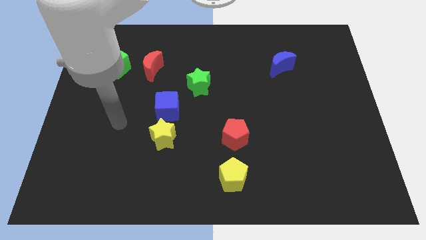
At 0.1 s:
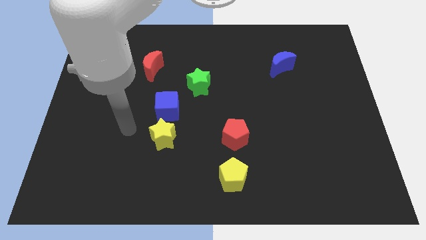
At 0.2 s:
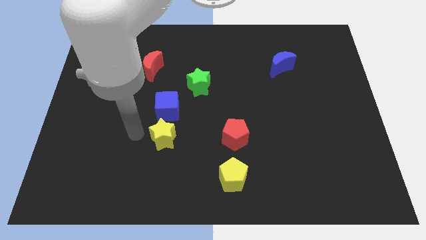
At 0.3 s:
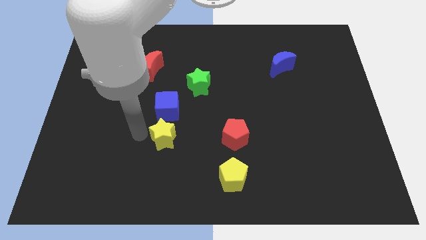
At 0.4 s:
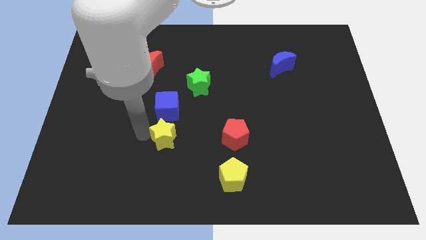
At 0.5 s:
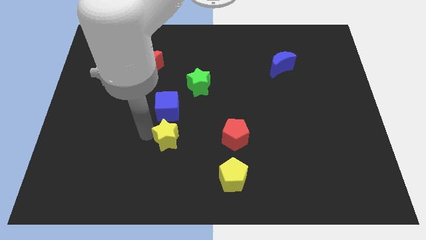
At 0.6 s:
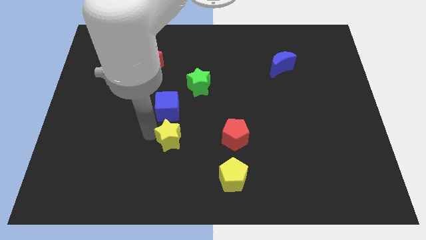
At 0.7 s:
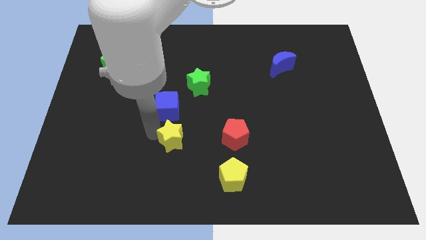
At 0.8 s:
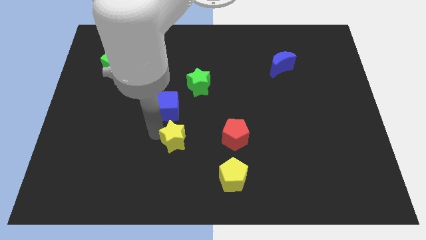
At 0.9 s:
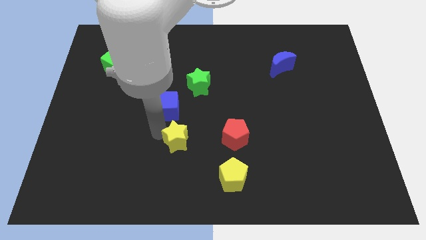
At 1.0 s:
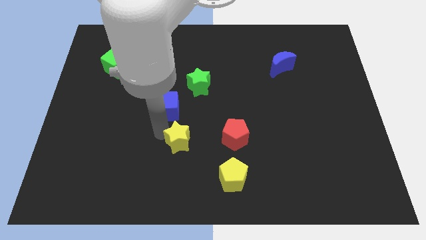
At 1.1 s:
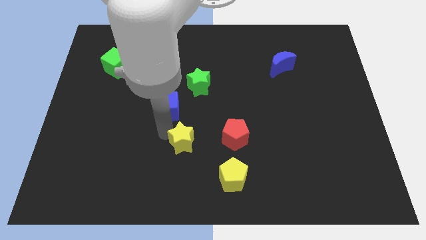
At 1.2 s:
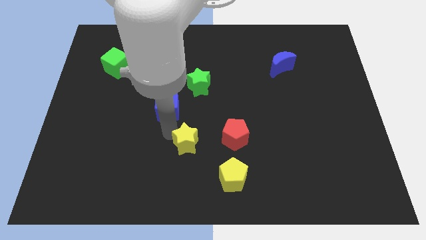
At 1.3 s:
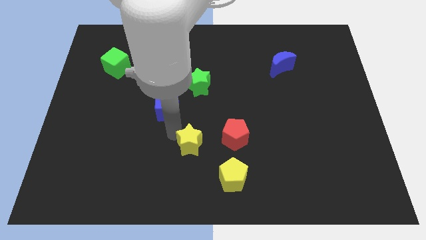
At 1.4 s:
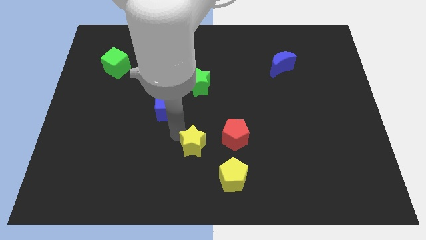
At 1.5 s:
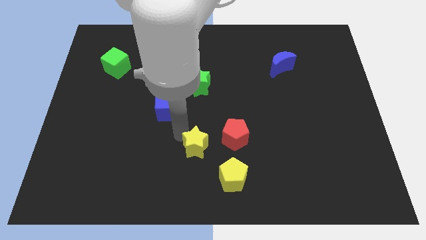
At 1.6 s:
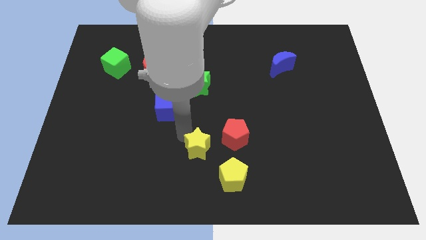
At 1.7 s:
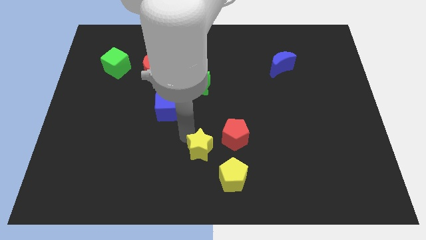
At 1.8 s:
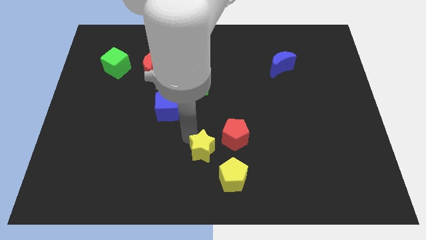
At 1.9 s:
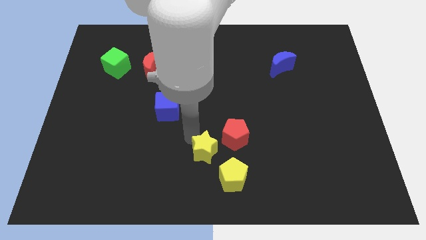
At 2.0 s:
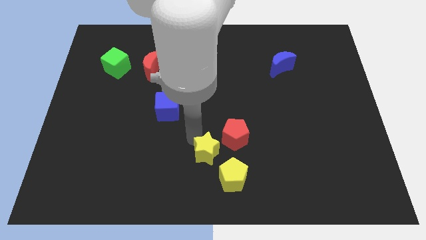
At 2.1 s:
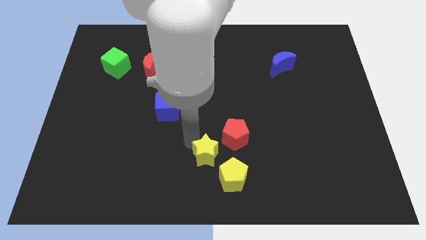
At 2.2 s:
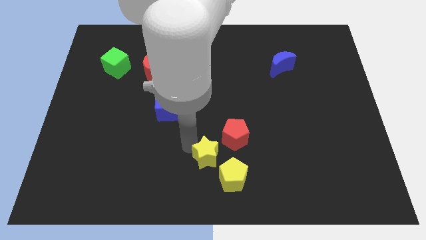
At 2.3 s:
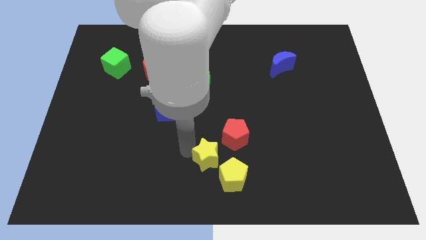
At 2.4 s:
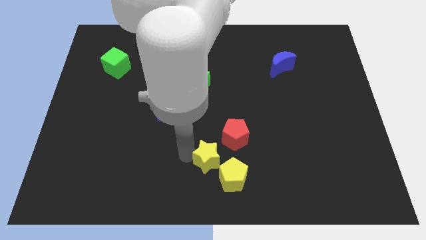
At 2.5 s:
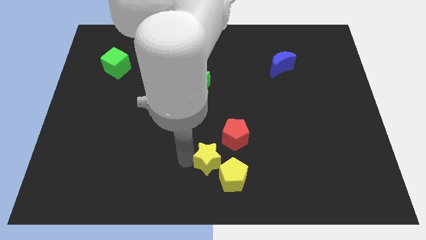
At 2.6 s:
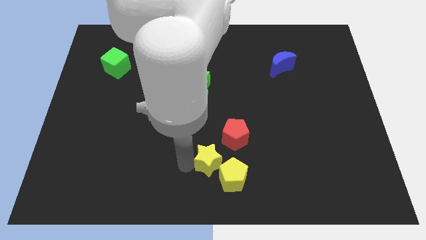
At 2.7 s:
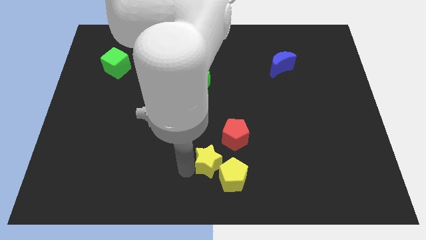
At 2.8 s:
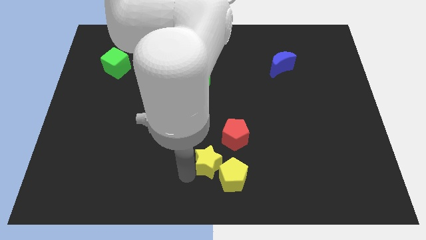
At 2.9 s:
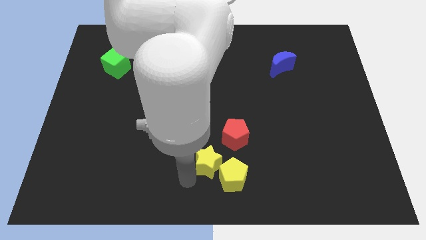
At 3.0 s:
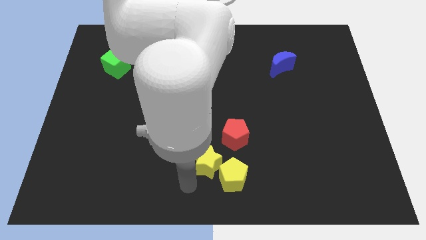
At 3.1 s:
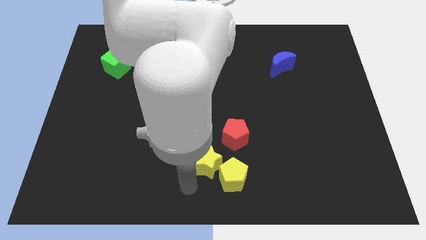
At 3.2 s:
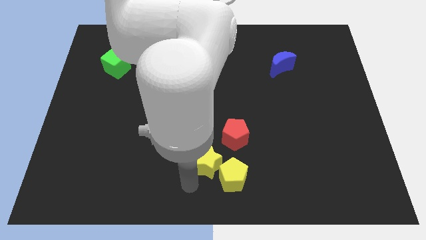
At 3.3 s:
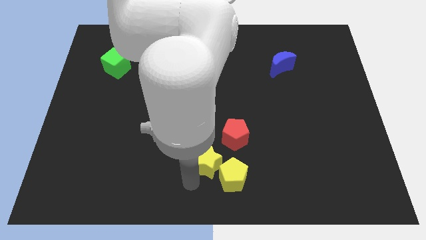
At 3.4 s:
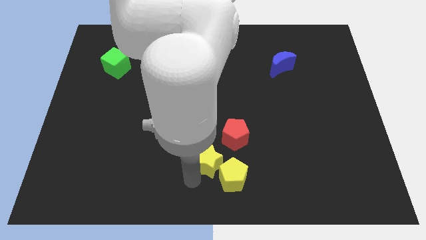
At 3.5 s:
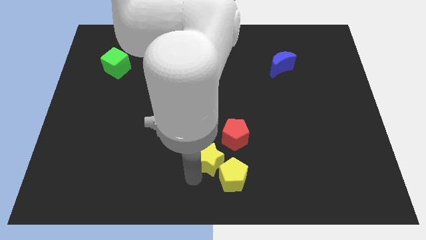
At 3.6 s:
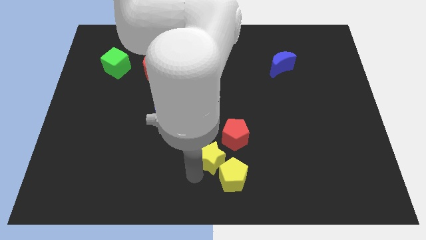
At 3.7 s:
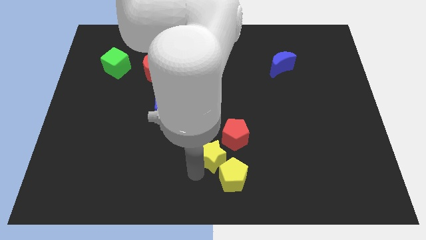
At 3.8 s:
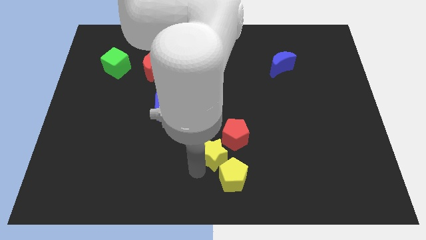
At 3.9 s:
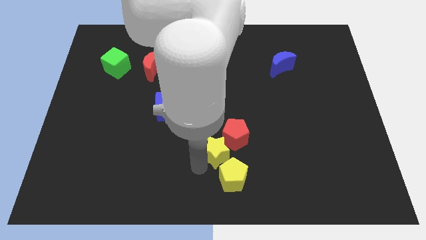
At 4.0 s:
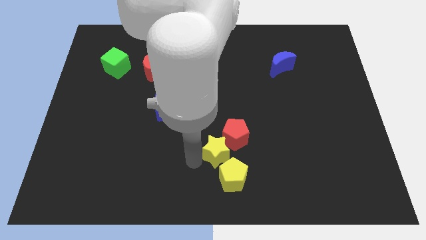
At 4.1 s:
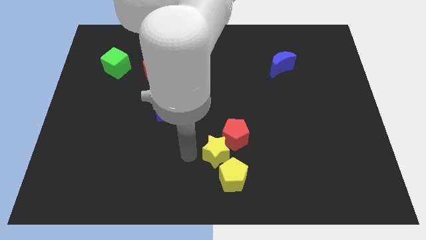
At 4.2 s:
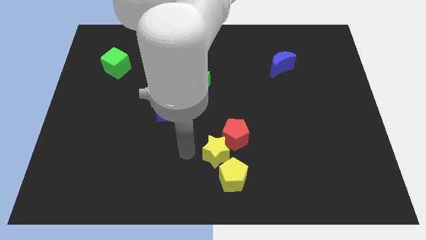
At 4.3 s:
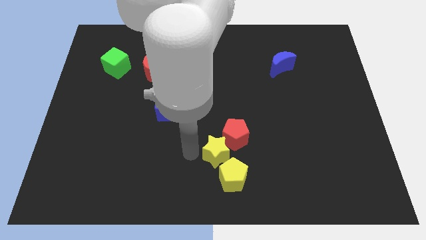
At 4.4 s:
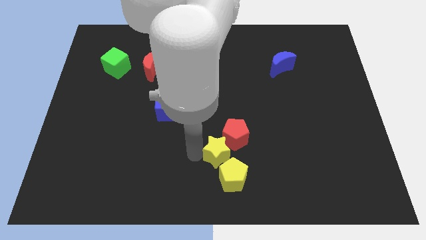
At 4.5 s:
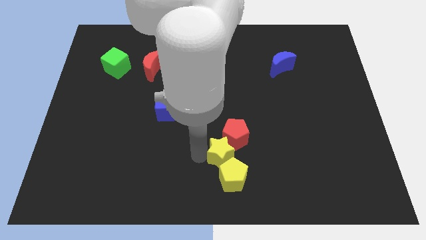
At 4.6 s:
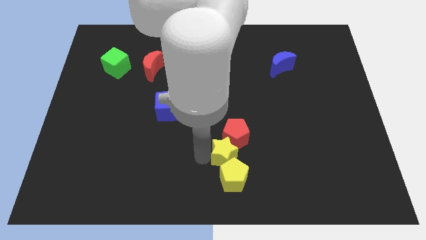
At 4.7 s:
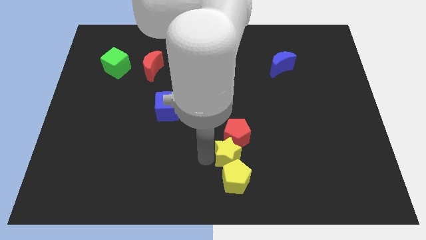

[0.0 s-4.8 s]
push the yellow star to the top right side of the yellow pentagon

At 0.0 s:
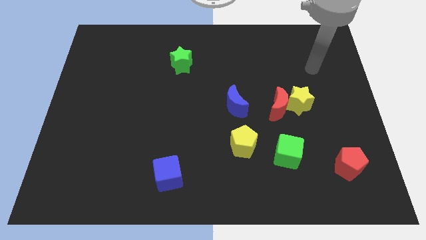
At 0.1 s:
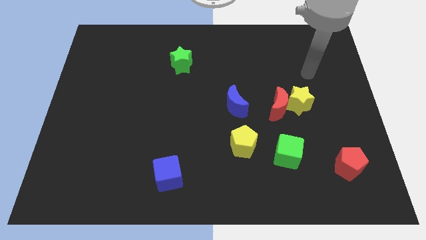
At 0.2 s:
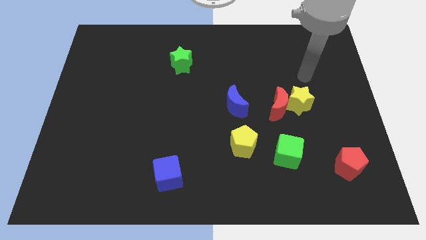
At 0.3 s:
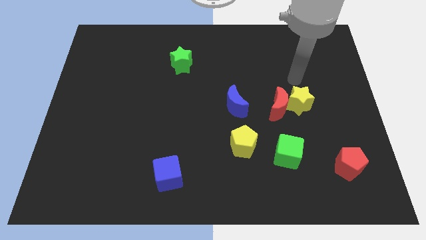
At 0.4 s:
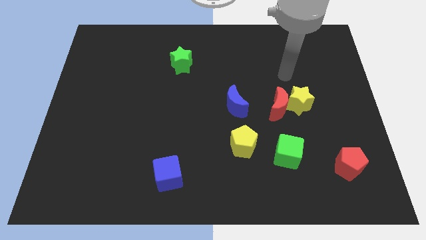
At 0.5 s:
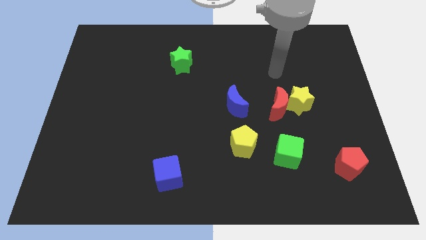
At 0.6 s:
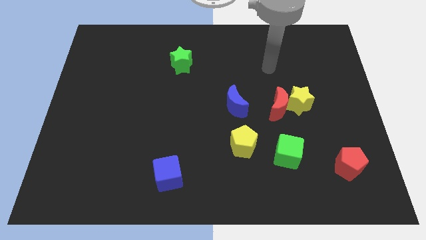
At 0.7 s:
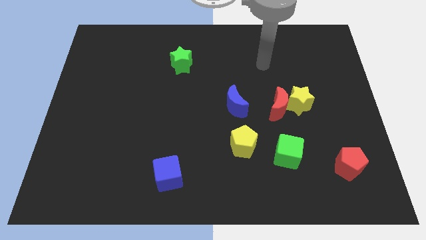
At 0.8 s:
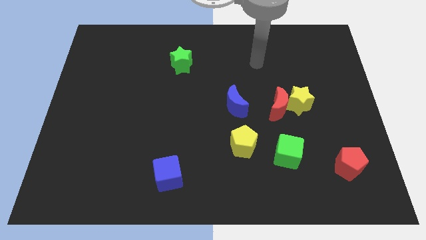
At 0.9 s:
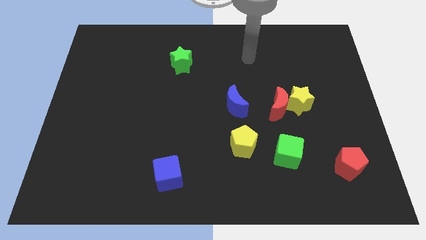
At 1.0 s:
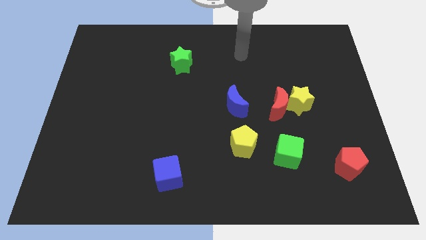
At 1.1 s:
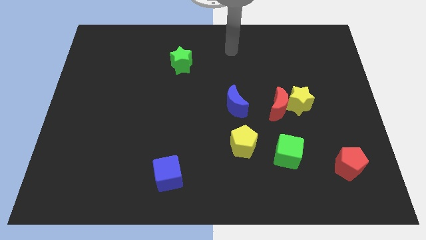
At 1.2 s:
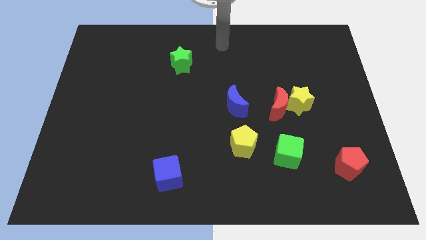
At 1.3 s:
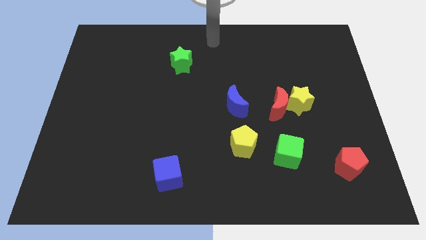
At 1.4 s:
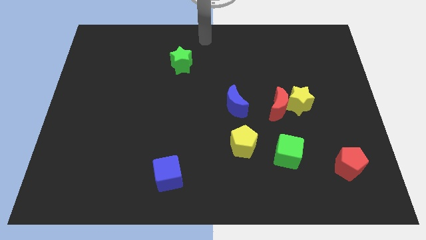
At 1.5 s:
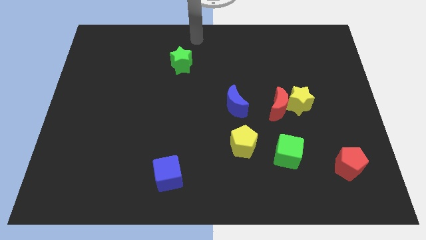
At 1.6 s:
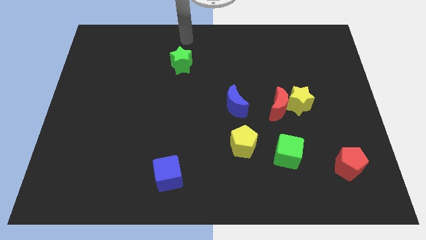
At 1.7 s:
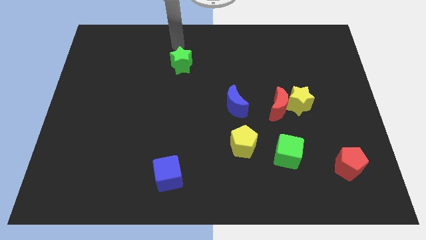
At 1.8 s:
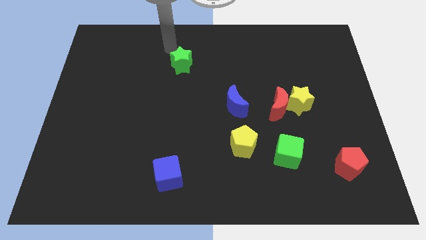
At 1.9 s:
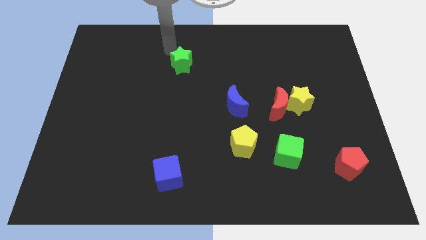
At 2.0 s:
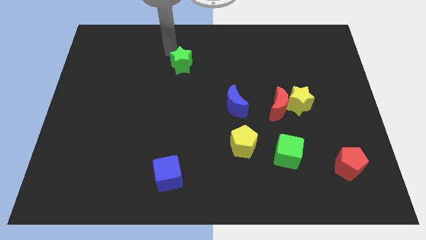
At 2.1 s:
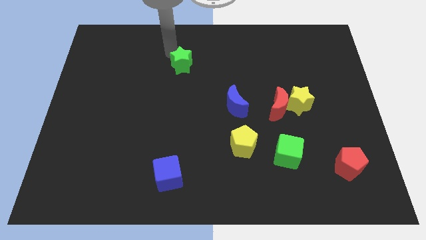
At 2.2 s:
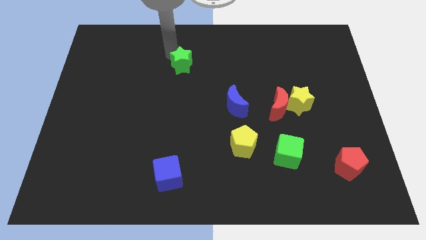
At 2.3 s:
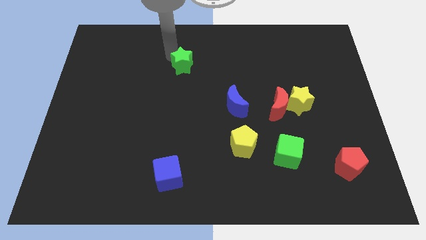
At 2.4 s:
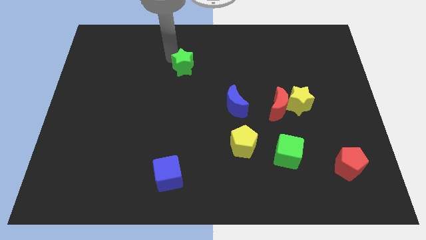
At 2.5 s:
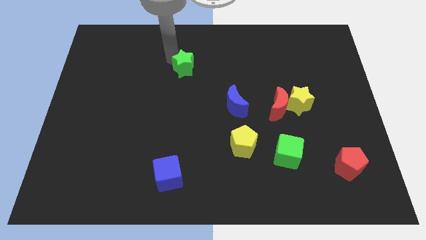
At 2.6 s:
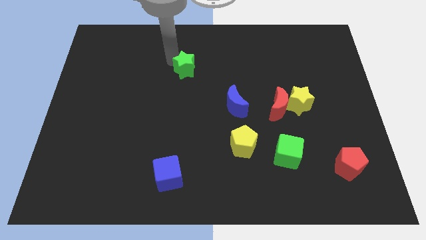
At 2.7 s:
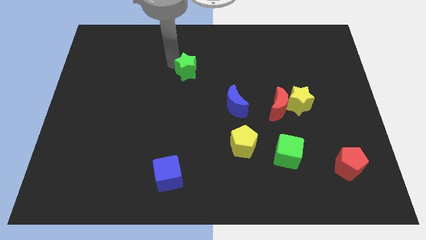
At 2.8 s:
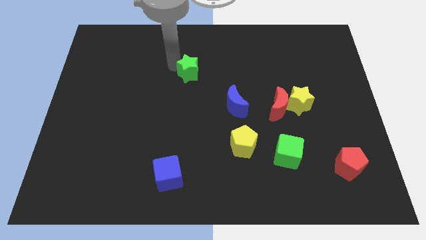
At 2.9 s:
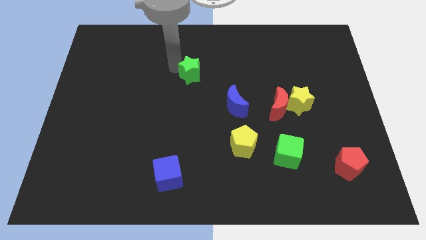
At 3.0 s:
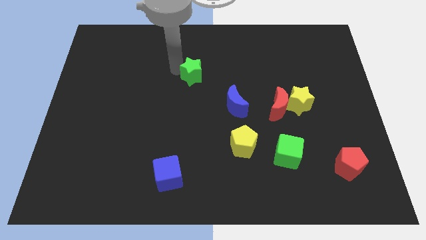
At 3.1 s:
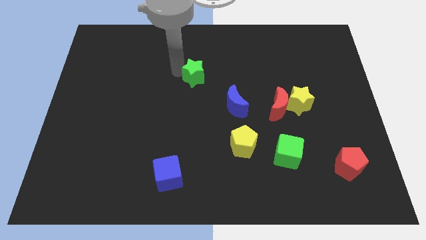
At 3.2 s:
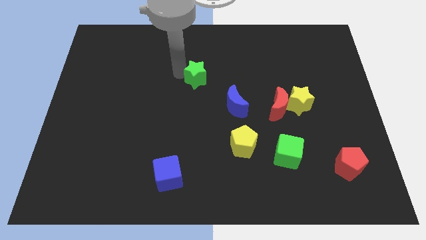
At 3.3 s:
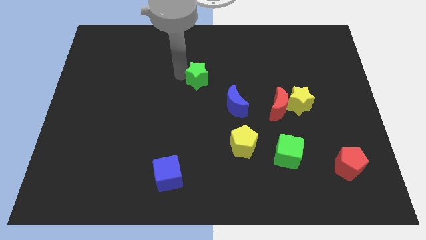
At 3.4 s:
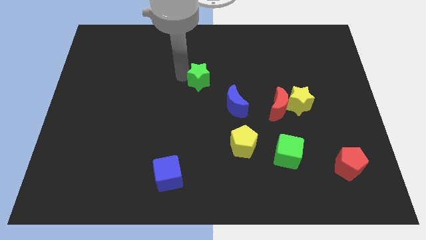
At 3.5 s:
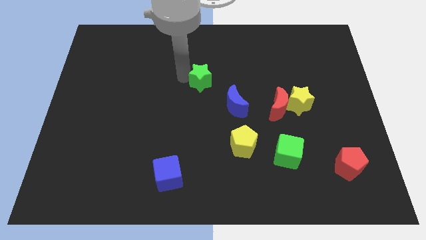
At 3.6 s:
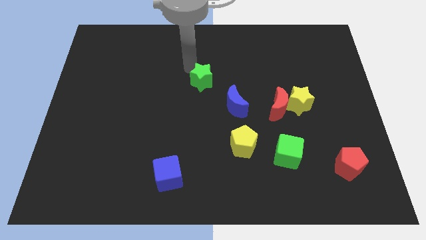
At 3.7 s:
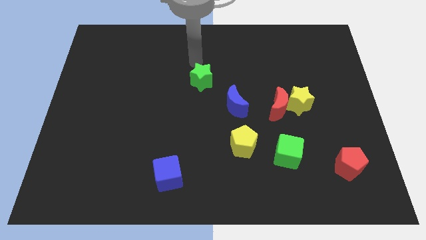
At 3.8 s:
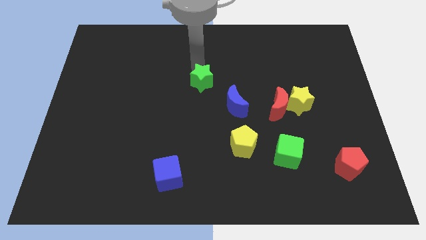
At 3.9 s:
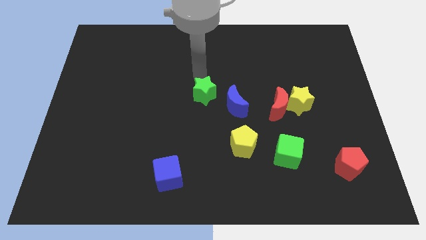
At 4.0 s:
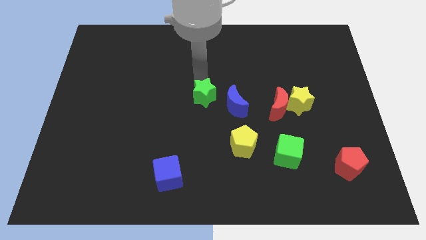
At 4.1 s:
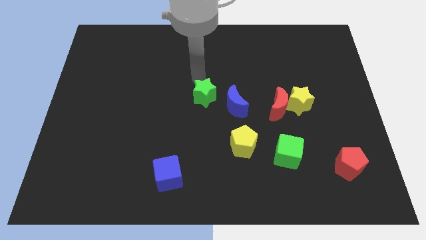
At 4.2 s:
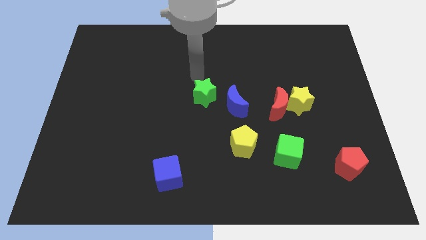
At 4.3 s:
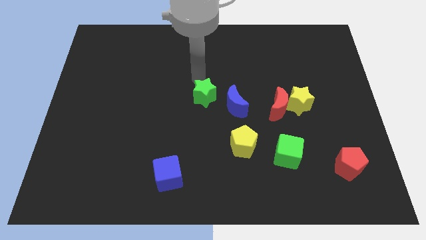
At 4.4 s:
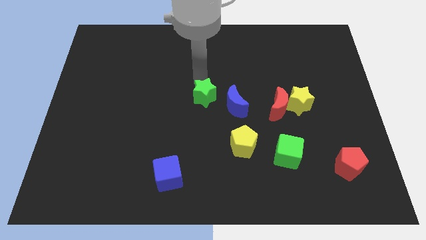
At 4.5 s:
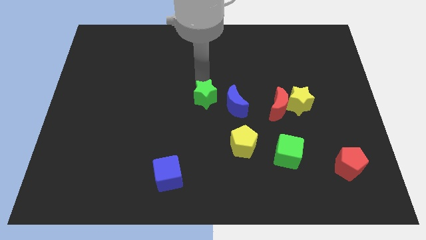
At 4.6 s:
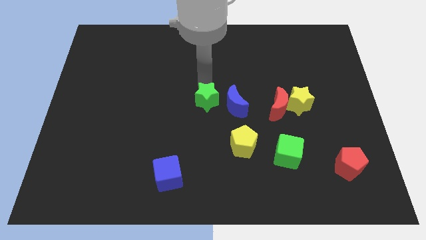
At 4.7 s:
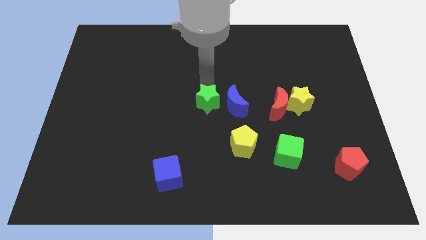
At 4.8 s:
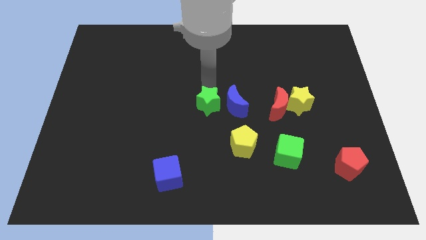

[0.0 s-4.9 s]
put the green star diagonally down and to the left of the blue moon
